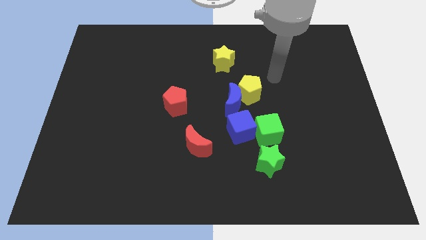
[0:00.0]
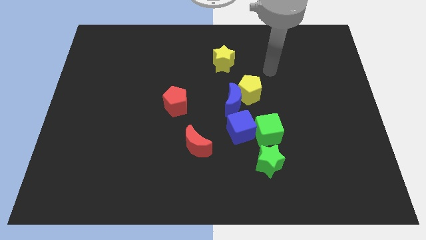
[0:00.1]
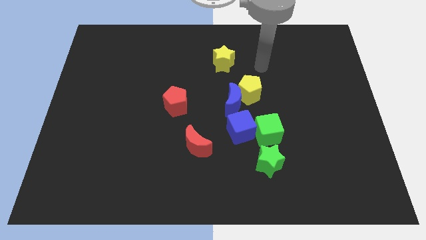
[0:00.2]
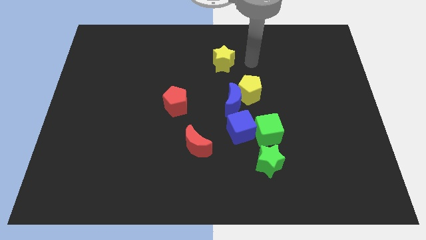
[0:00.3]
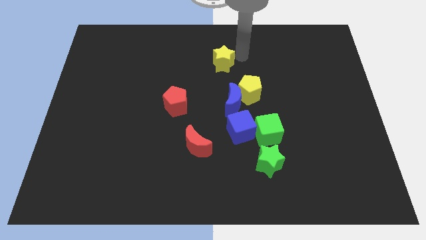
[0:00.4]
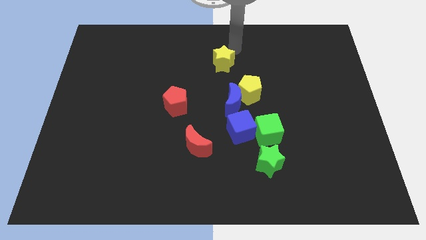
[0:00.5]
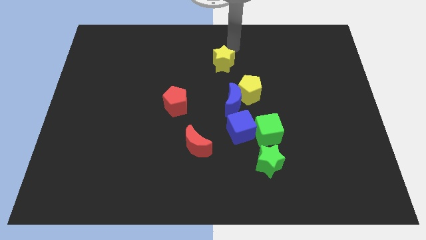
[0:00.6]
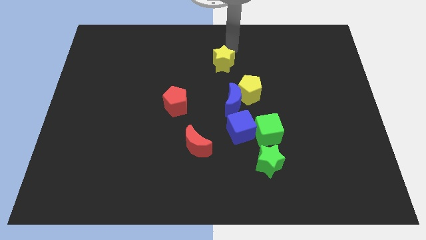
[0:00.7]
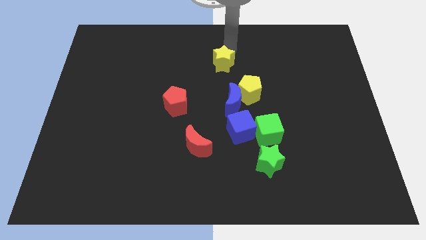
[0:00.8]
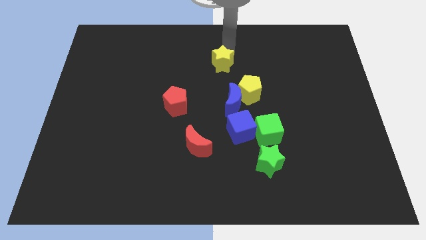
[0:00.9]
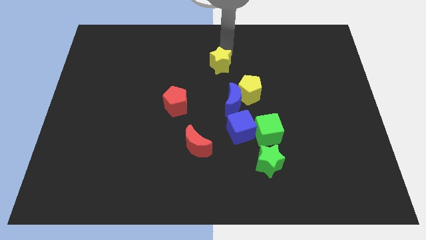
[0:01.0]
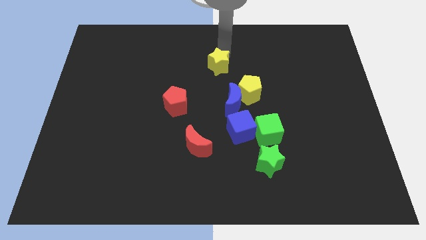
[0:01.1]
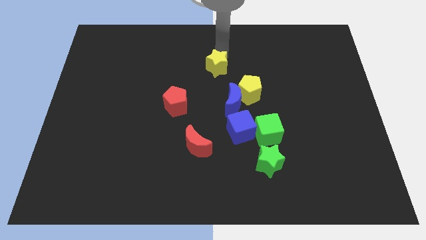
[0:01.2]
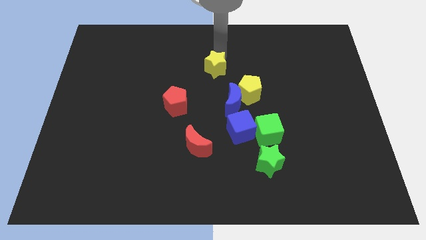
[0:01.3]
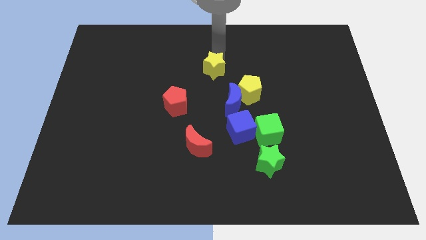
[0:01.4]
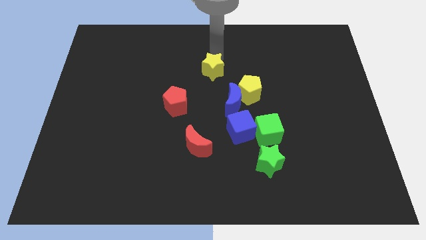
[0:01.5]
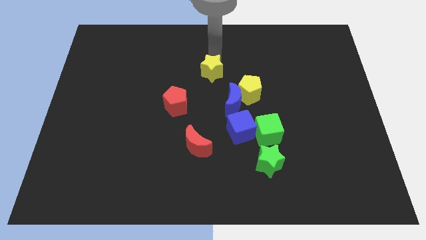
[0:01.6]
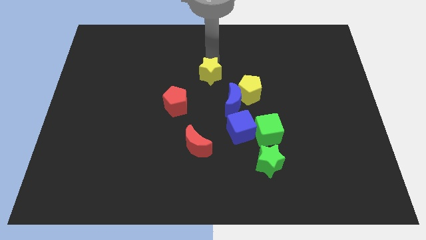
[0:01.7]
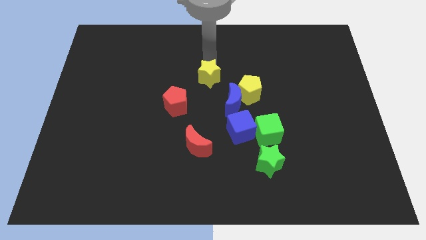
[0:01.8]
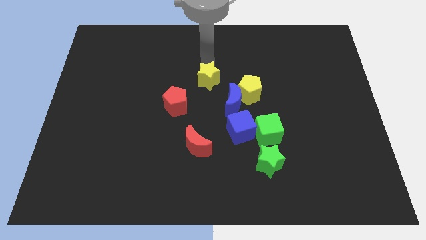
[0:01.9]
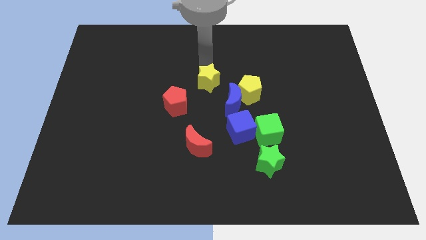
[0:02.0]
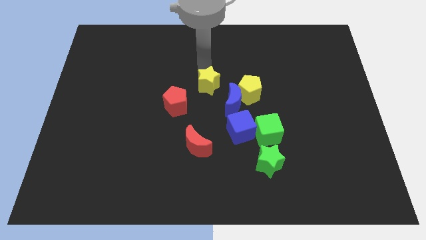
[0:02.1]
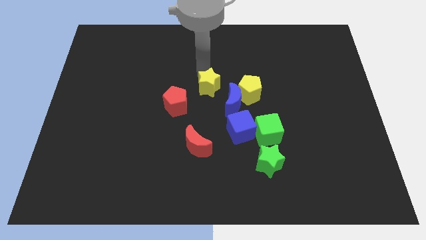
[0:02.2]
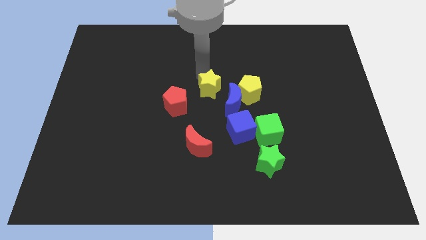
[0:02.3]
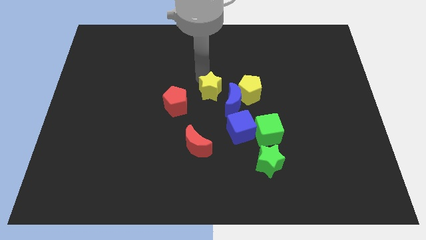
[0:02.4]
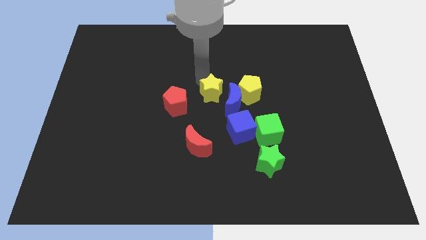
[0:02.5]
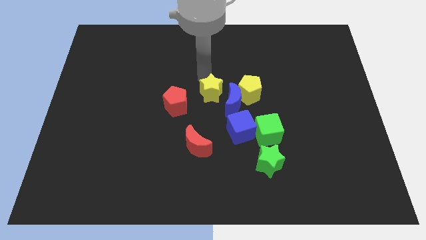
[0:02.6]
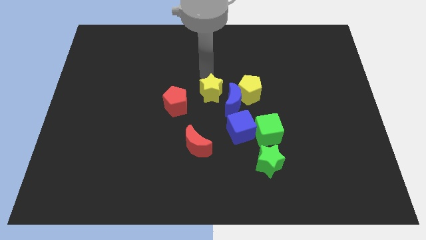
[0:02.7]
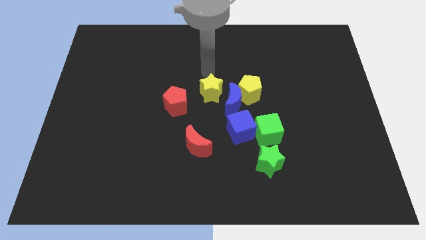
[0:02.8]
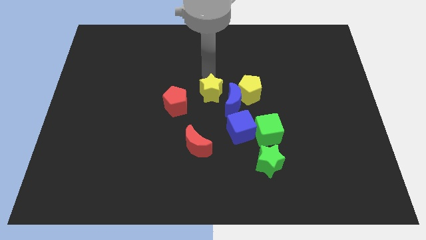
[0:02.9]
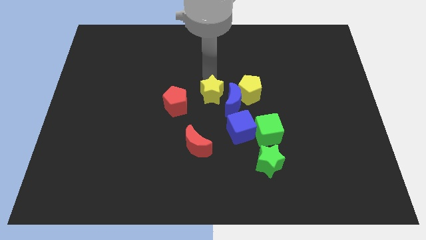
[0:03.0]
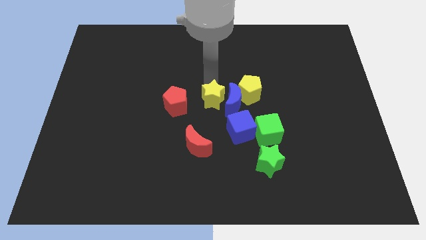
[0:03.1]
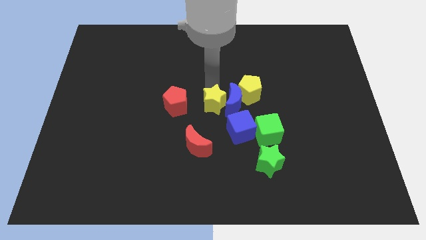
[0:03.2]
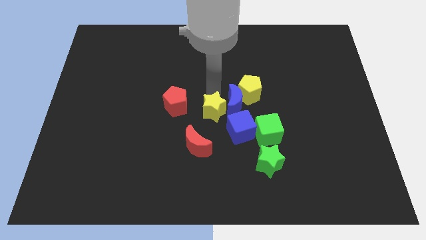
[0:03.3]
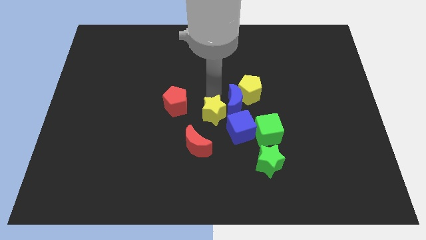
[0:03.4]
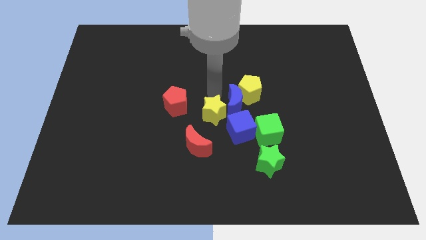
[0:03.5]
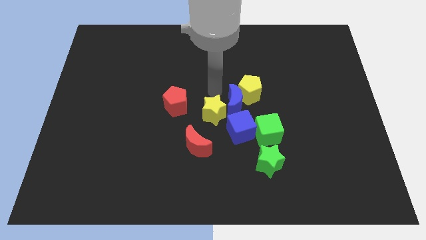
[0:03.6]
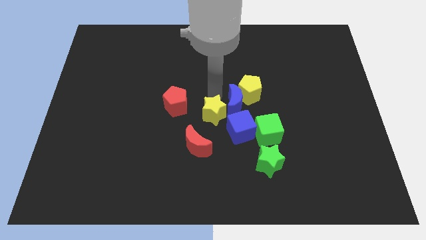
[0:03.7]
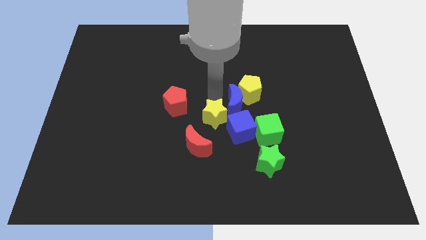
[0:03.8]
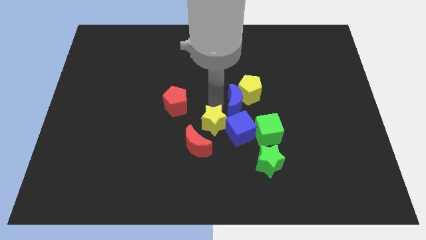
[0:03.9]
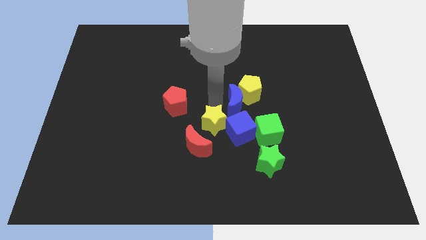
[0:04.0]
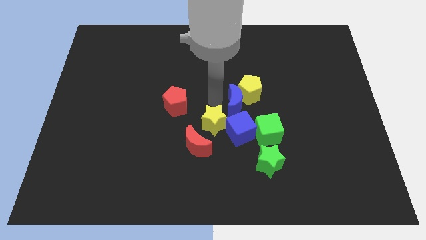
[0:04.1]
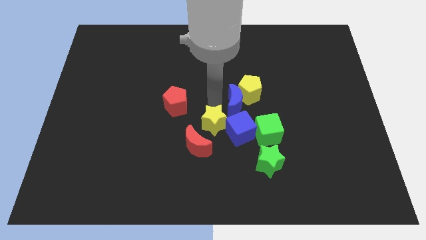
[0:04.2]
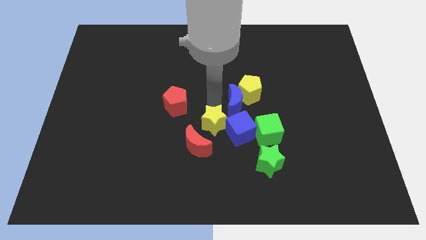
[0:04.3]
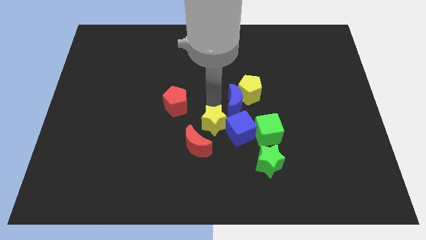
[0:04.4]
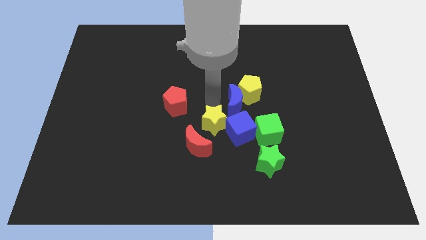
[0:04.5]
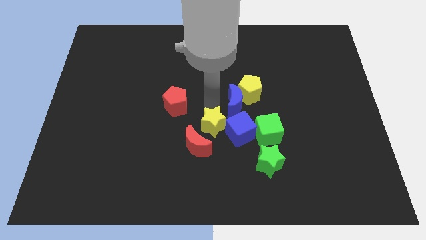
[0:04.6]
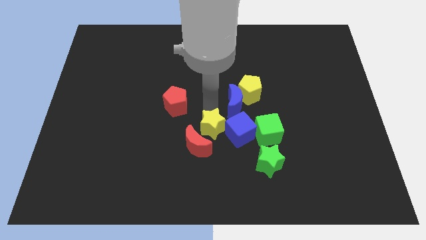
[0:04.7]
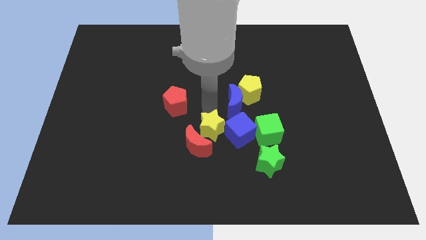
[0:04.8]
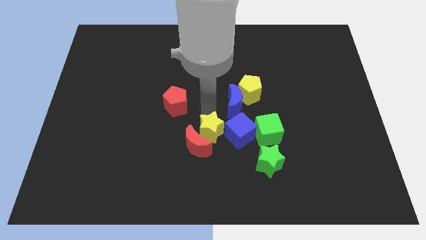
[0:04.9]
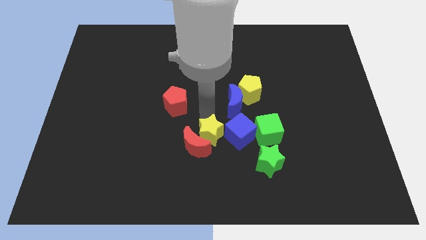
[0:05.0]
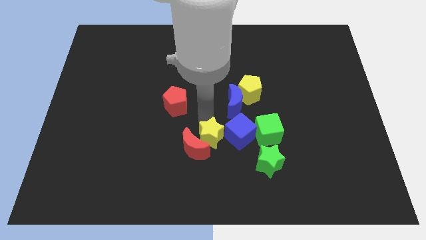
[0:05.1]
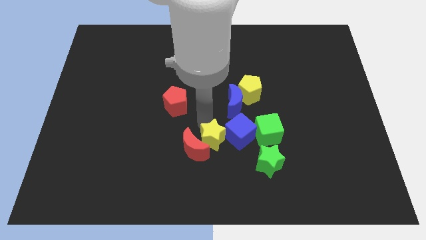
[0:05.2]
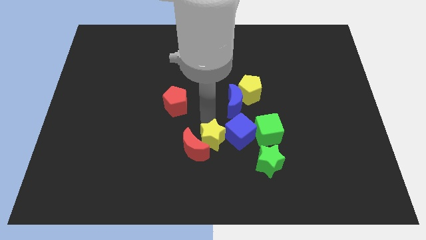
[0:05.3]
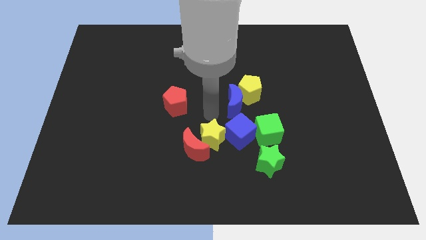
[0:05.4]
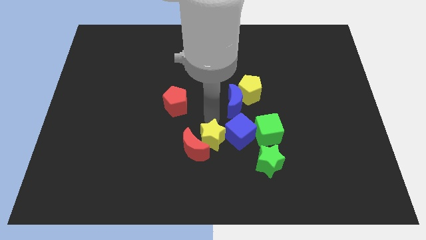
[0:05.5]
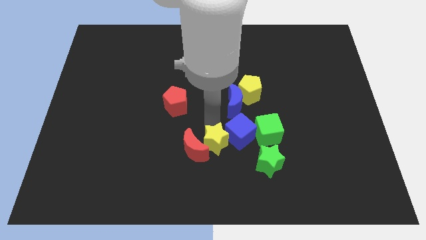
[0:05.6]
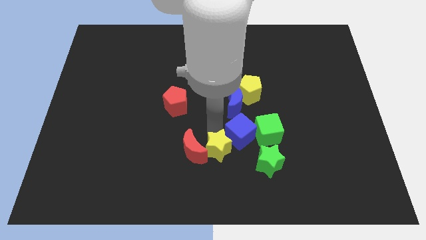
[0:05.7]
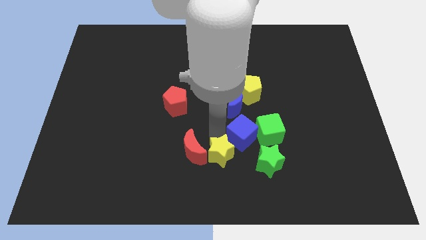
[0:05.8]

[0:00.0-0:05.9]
move the yellow star to the bottom side
